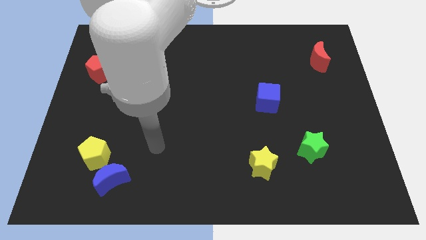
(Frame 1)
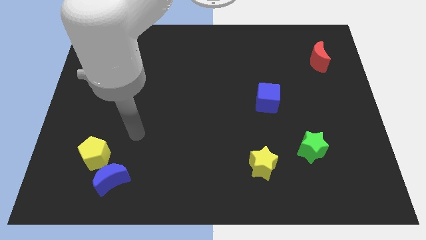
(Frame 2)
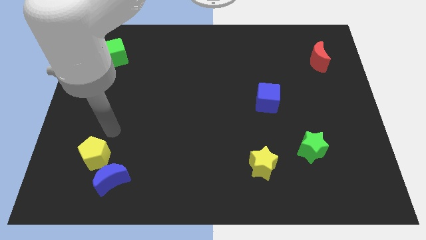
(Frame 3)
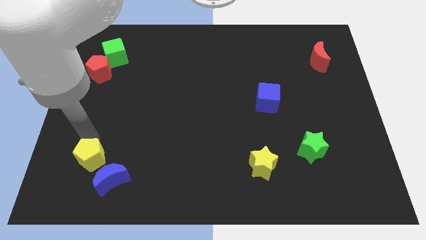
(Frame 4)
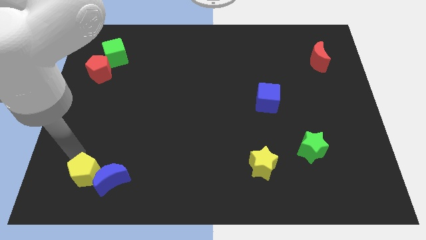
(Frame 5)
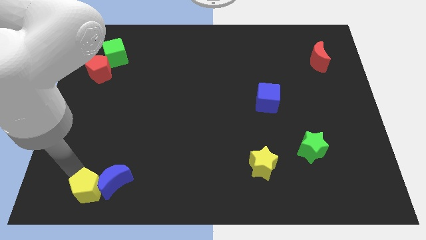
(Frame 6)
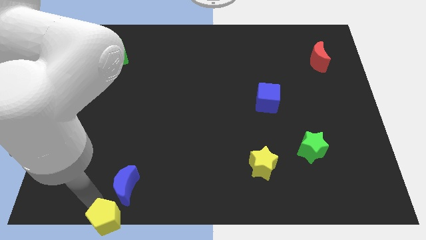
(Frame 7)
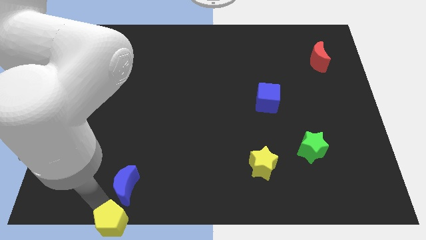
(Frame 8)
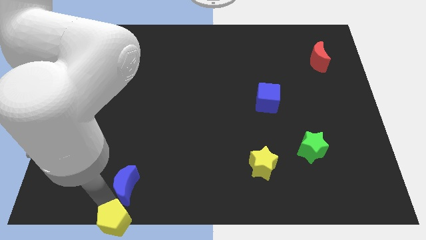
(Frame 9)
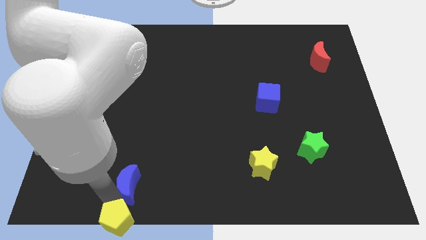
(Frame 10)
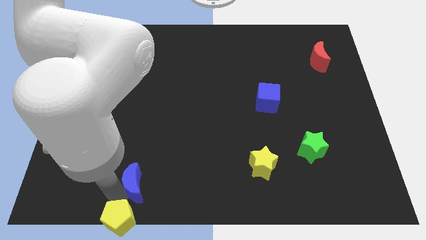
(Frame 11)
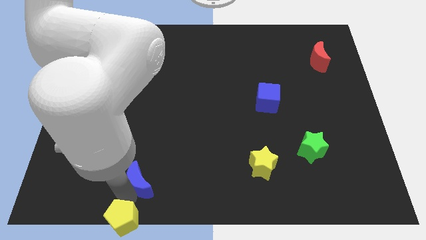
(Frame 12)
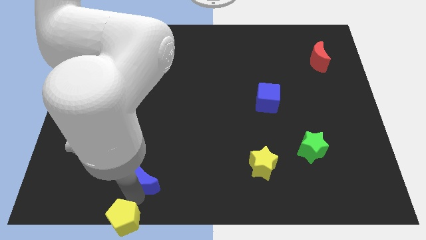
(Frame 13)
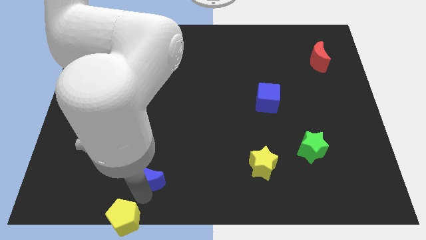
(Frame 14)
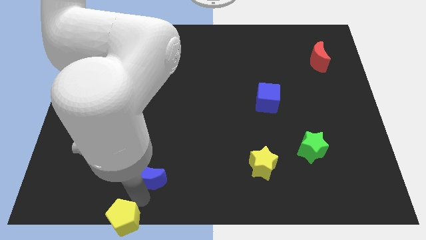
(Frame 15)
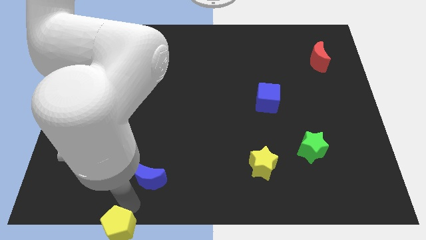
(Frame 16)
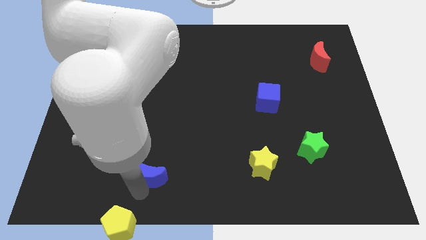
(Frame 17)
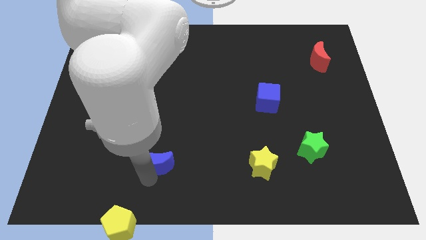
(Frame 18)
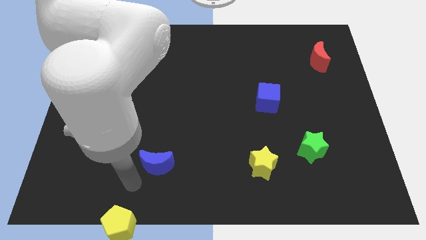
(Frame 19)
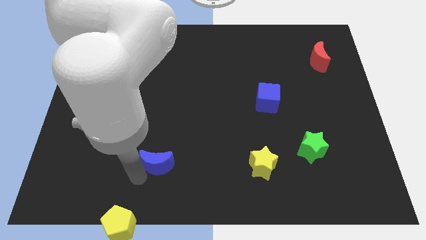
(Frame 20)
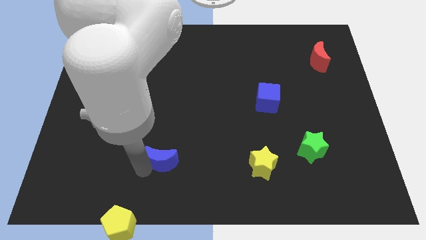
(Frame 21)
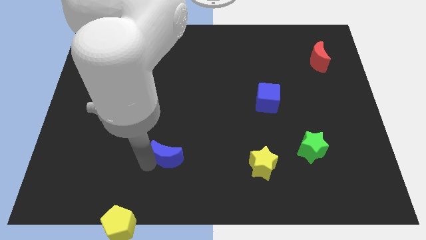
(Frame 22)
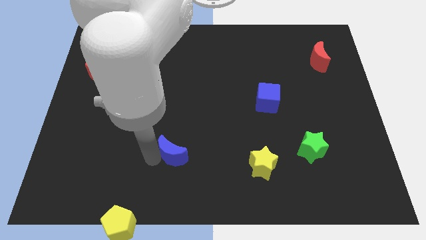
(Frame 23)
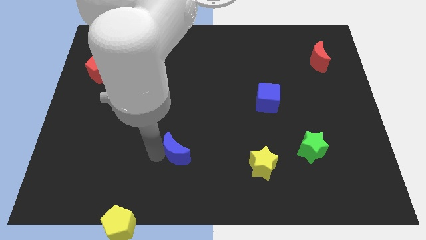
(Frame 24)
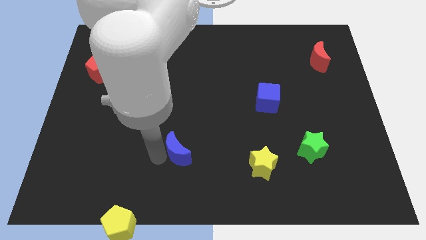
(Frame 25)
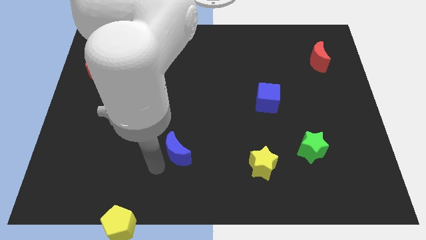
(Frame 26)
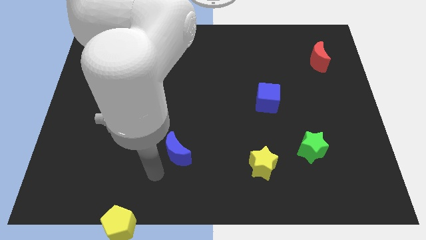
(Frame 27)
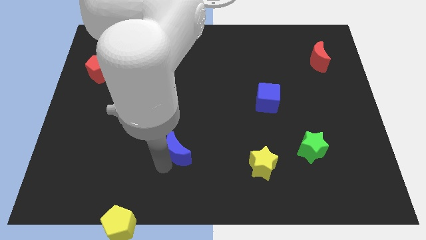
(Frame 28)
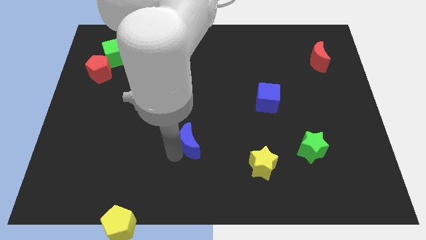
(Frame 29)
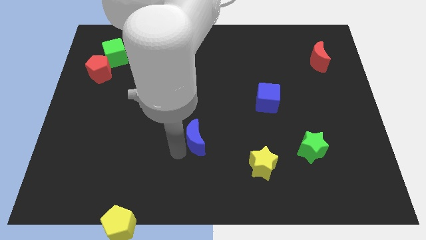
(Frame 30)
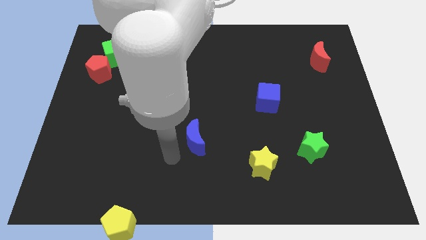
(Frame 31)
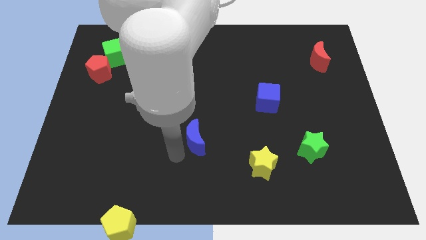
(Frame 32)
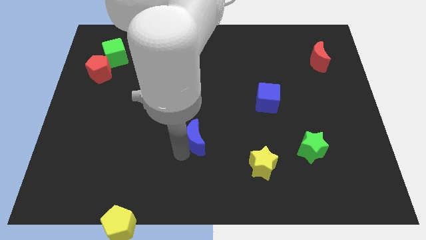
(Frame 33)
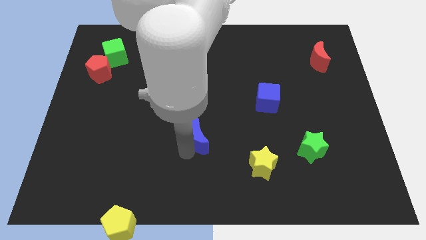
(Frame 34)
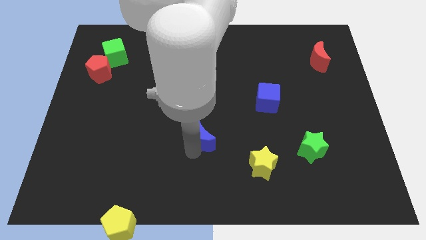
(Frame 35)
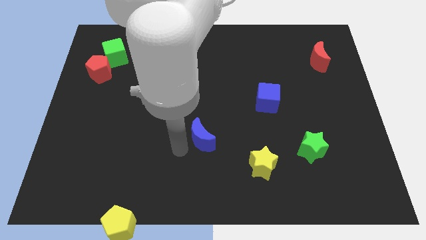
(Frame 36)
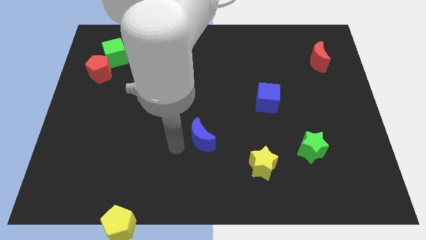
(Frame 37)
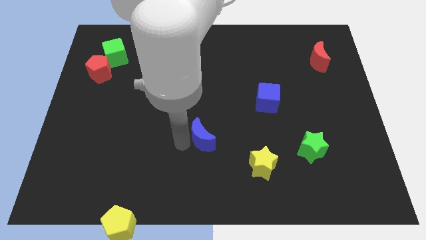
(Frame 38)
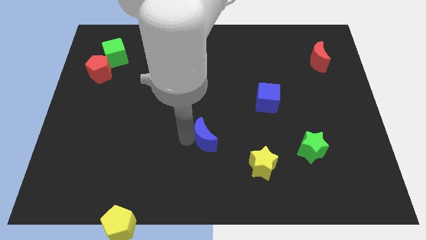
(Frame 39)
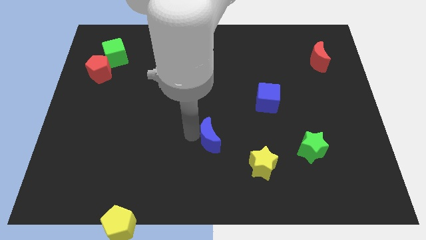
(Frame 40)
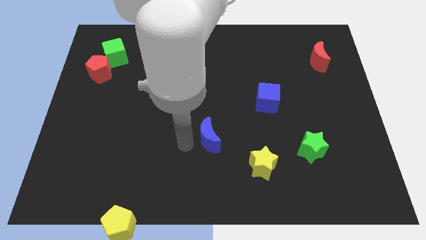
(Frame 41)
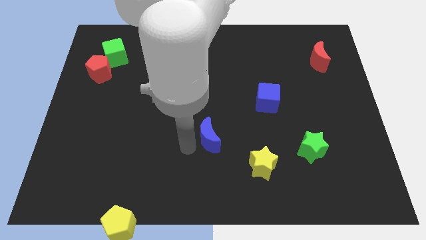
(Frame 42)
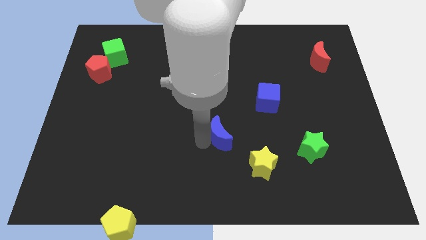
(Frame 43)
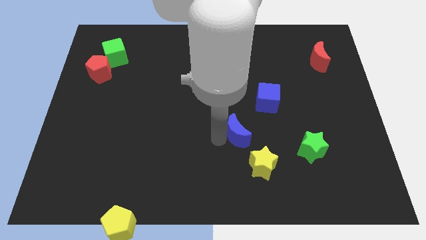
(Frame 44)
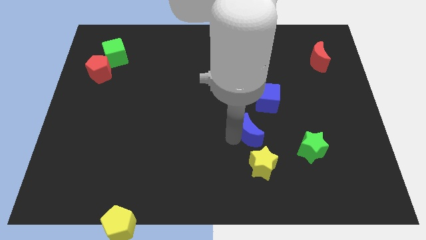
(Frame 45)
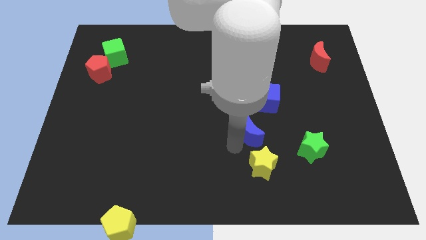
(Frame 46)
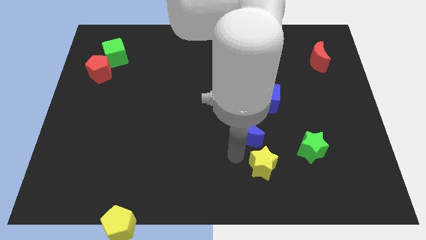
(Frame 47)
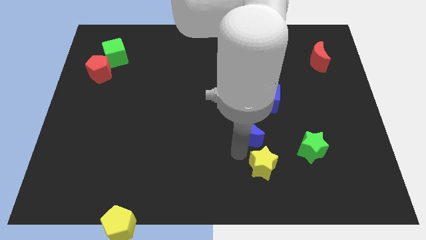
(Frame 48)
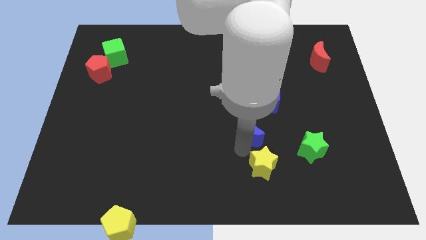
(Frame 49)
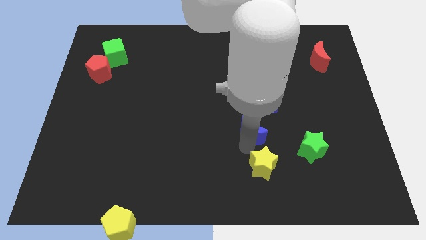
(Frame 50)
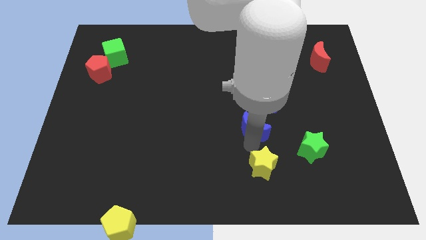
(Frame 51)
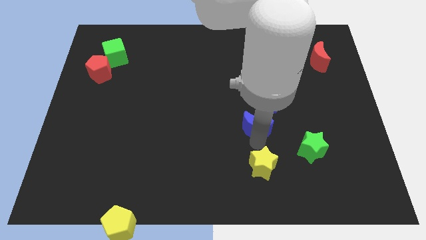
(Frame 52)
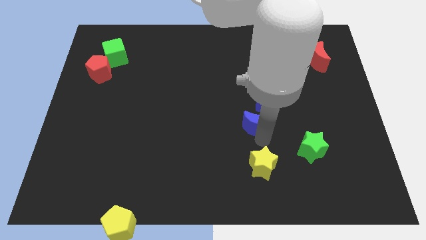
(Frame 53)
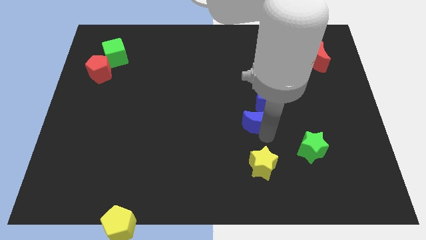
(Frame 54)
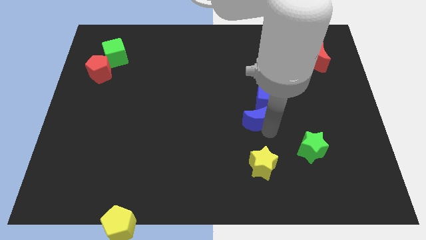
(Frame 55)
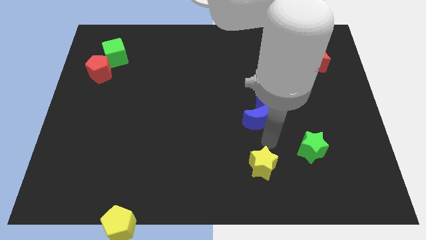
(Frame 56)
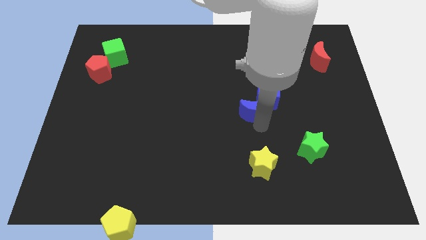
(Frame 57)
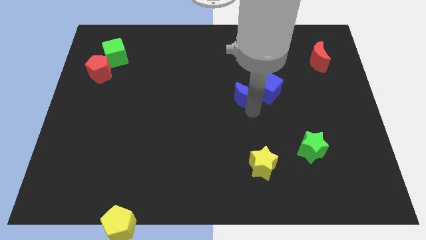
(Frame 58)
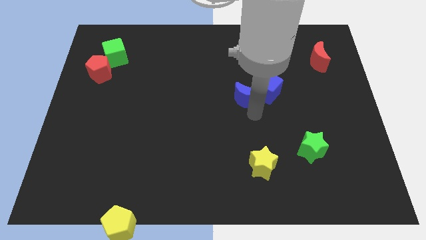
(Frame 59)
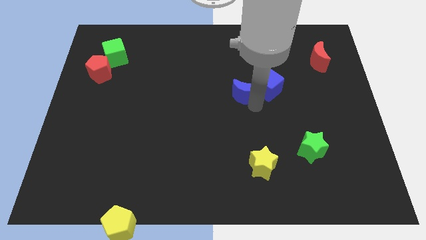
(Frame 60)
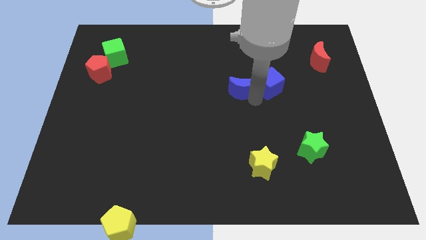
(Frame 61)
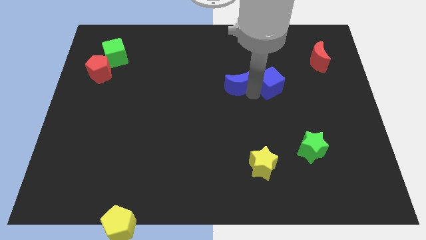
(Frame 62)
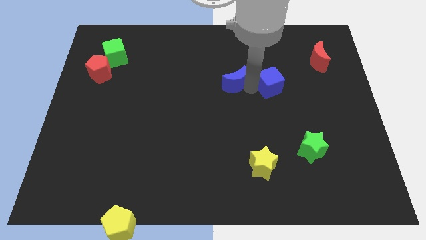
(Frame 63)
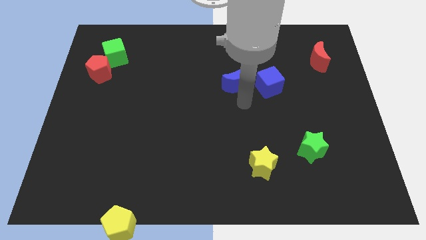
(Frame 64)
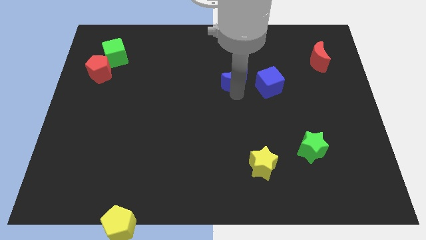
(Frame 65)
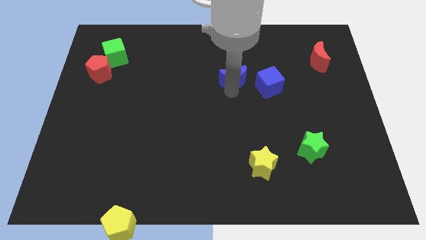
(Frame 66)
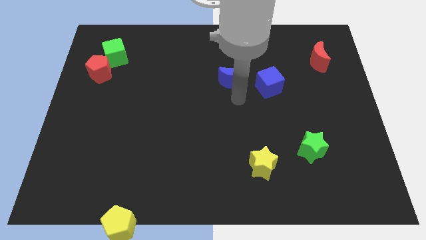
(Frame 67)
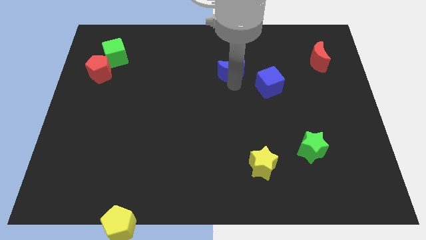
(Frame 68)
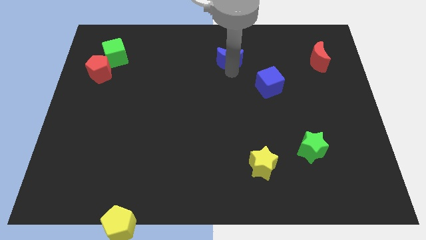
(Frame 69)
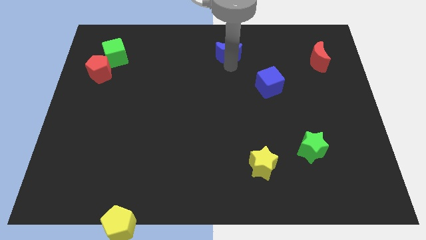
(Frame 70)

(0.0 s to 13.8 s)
put the blue moon to the top side

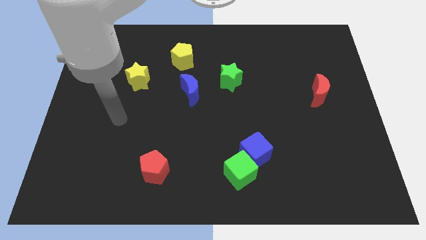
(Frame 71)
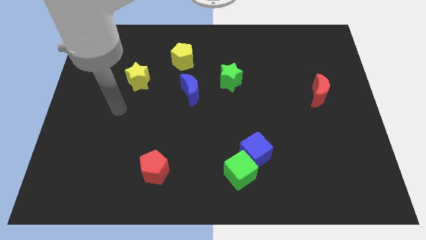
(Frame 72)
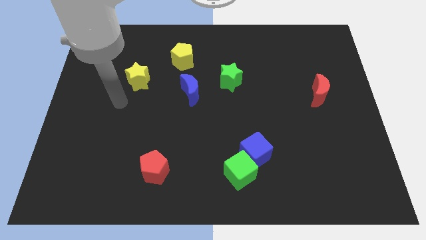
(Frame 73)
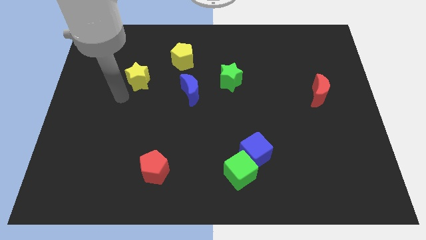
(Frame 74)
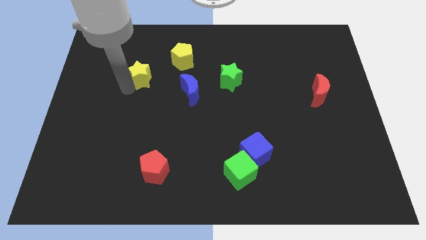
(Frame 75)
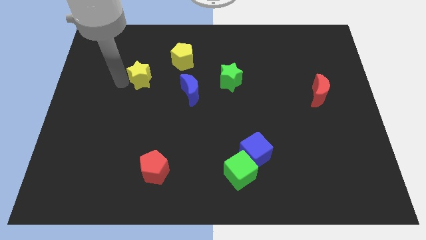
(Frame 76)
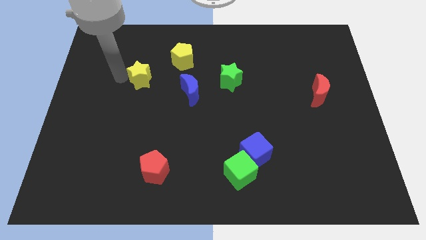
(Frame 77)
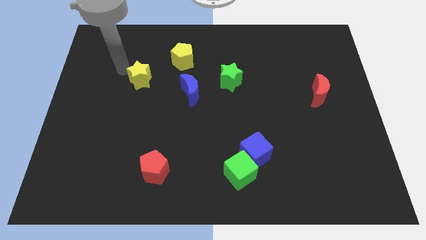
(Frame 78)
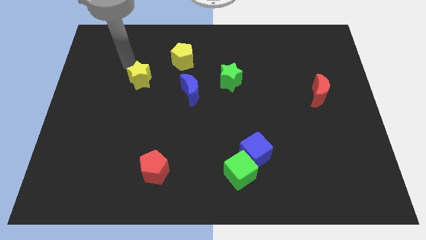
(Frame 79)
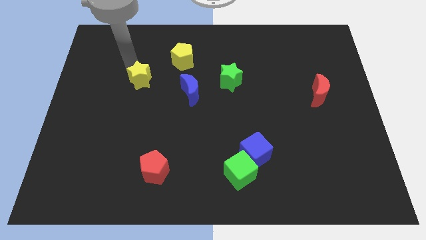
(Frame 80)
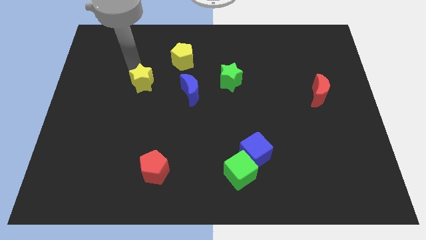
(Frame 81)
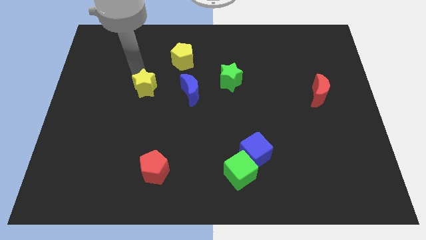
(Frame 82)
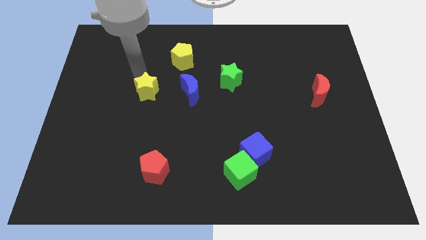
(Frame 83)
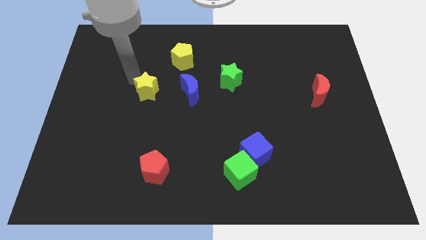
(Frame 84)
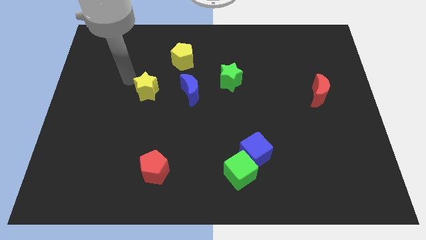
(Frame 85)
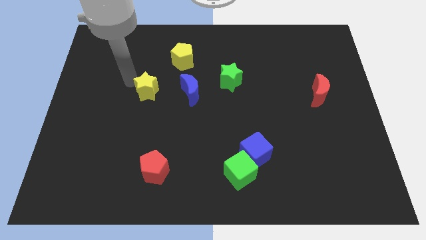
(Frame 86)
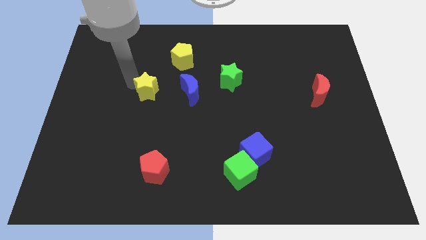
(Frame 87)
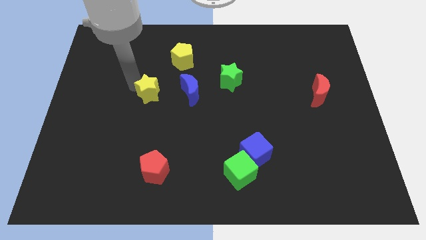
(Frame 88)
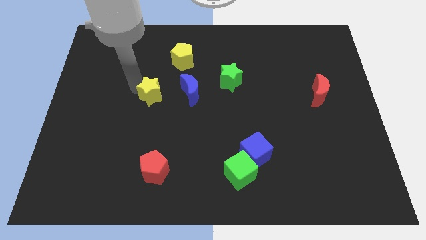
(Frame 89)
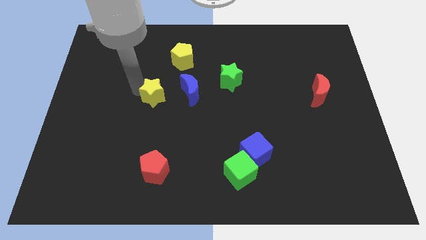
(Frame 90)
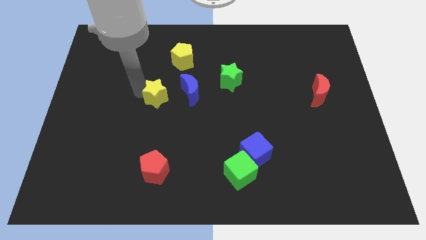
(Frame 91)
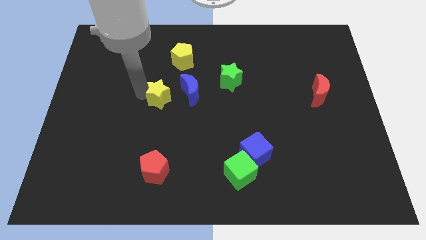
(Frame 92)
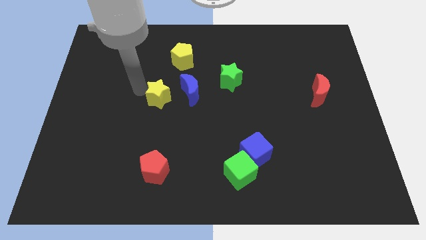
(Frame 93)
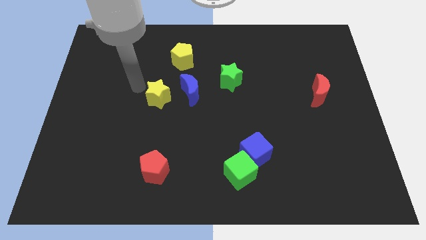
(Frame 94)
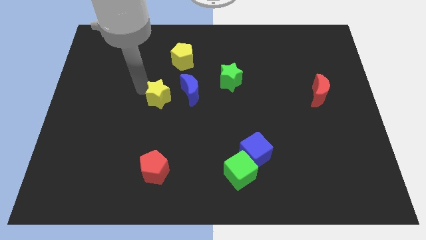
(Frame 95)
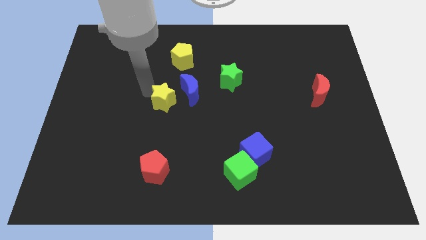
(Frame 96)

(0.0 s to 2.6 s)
push the yellow star to the center
